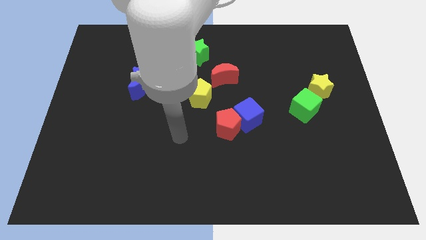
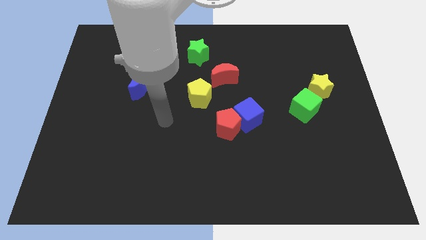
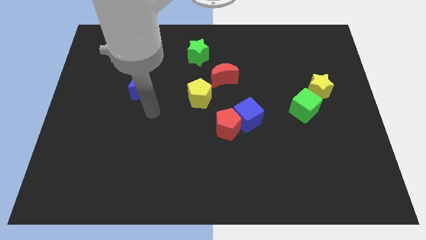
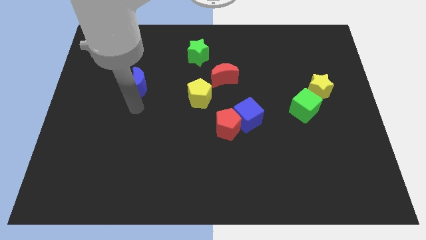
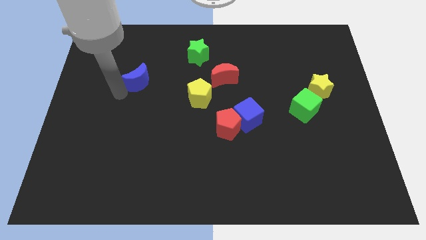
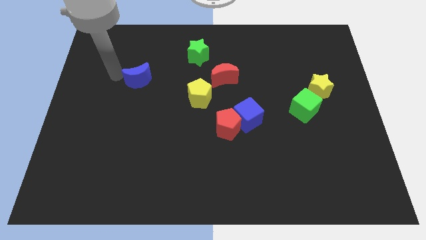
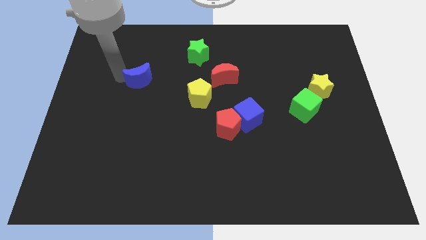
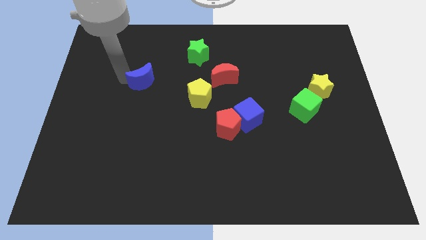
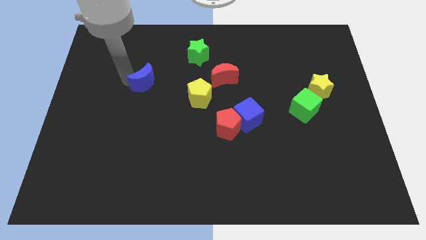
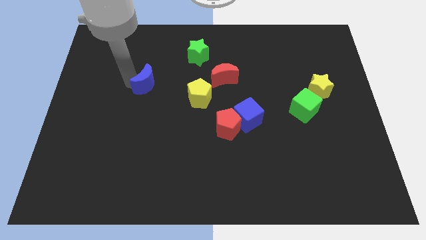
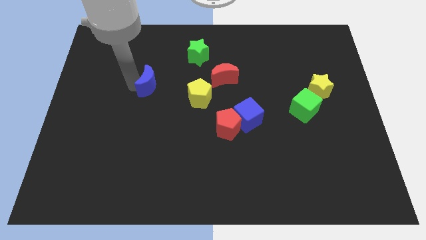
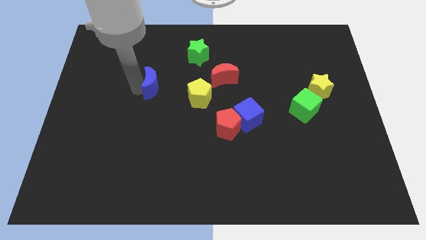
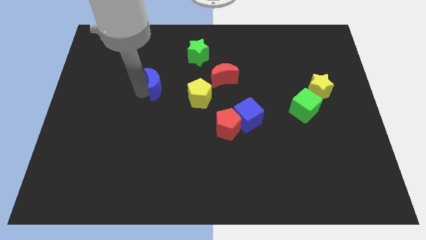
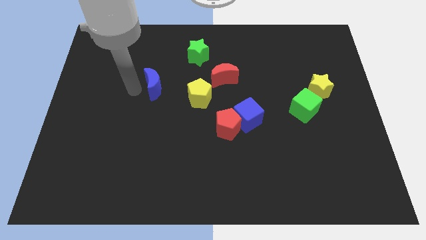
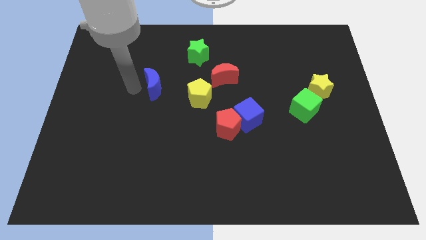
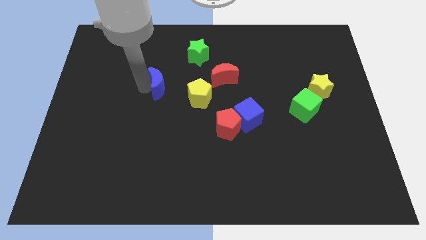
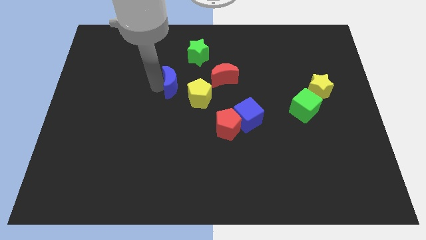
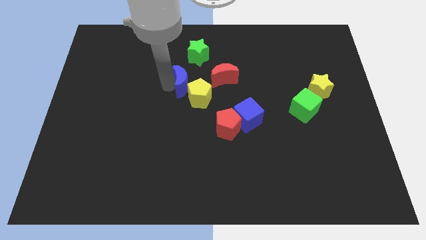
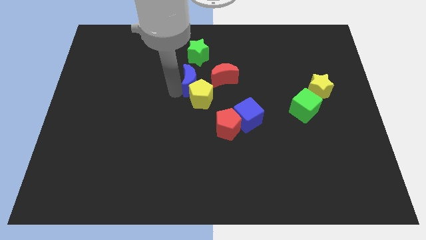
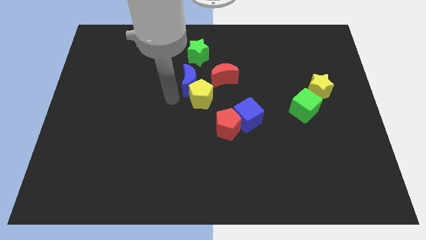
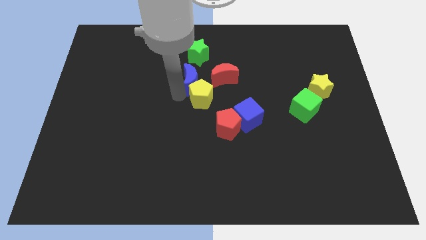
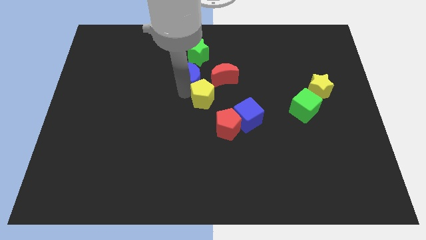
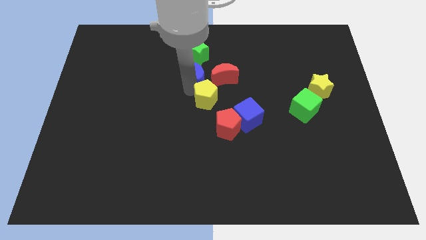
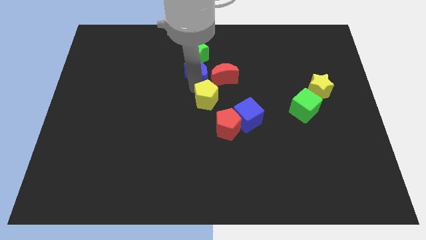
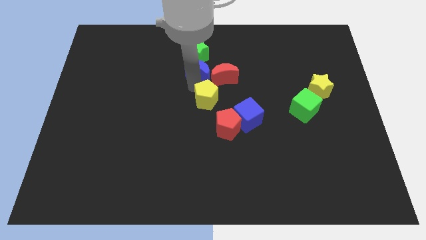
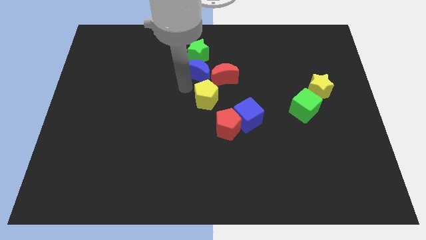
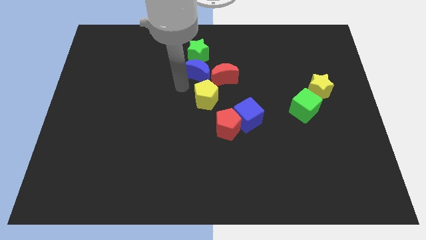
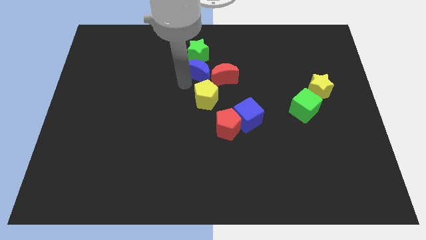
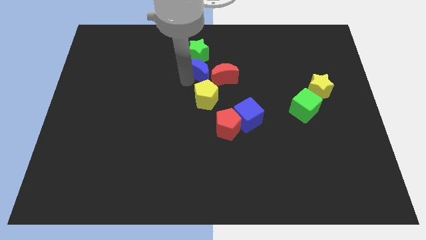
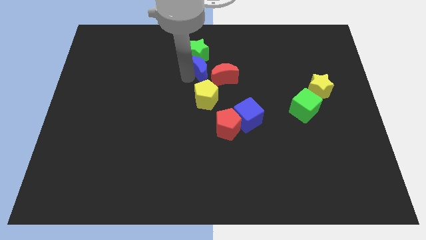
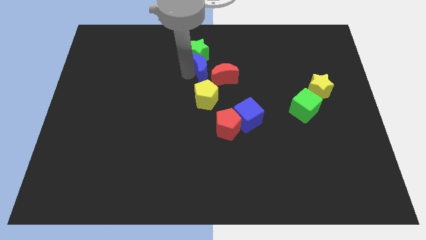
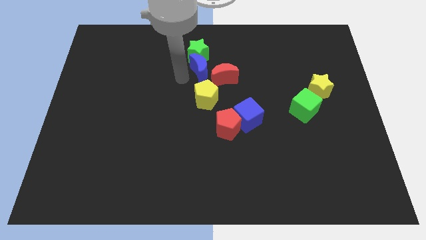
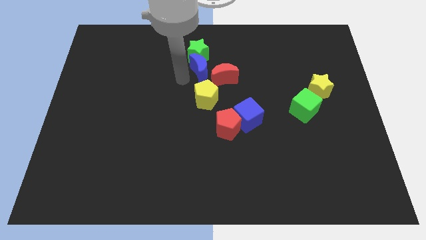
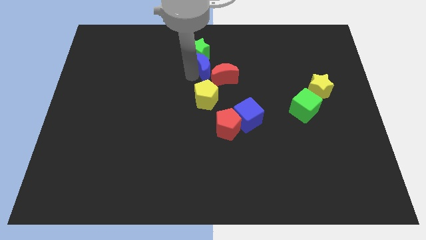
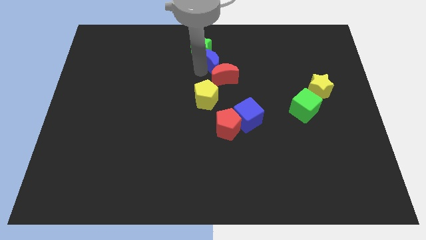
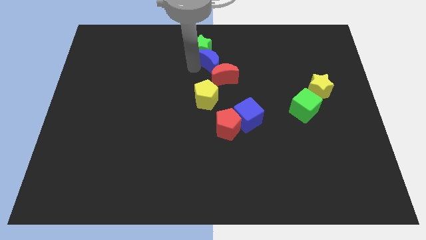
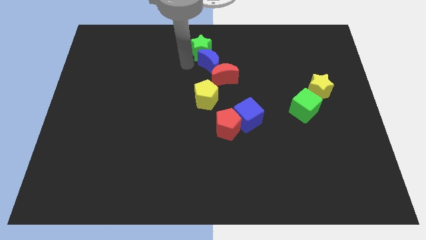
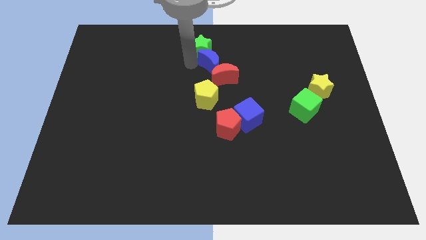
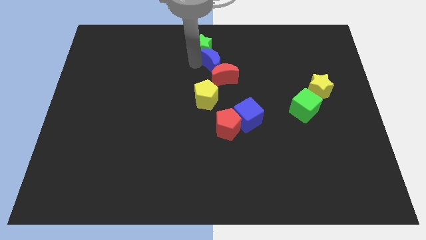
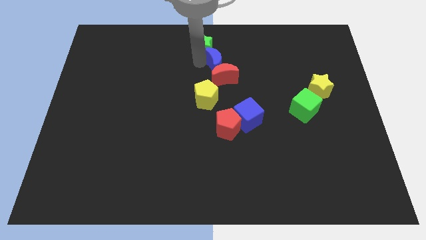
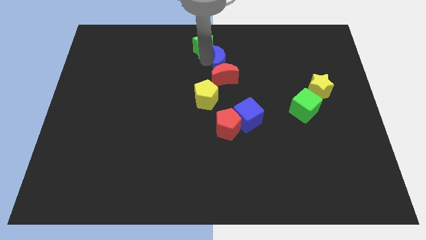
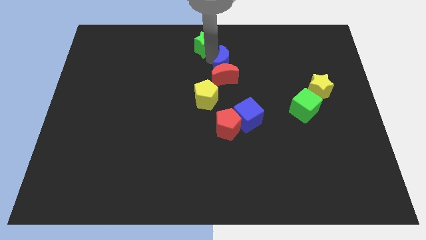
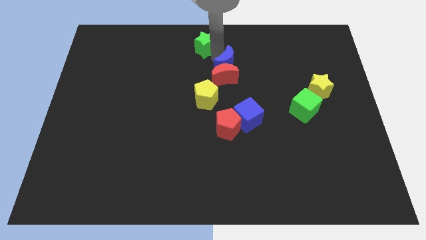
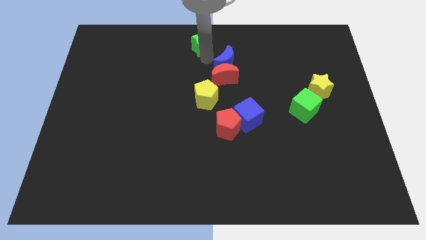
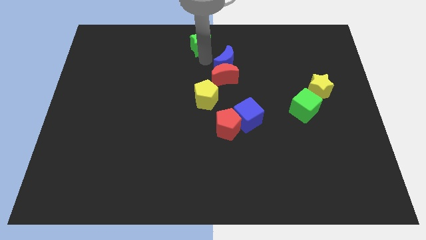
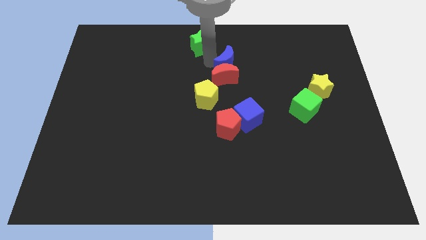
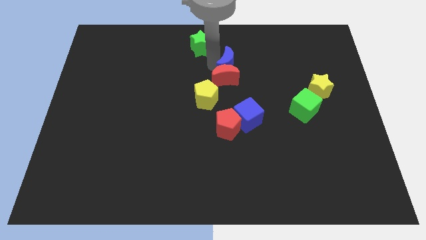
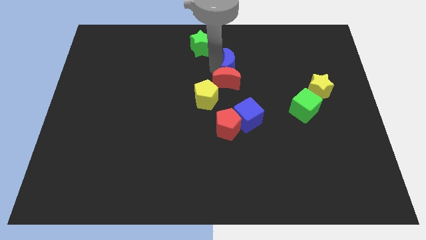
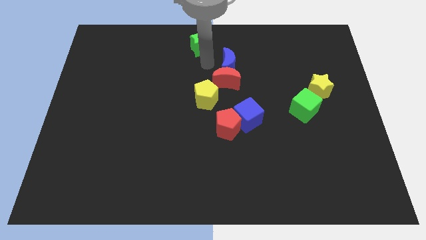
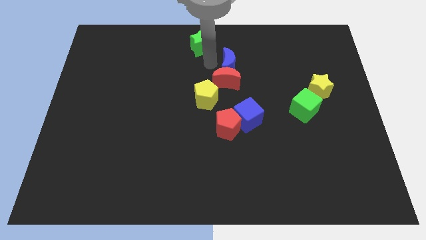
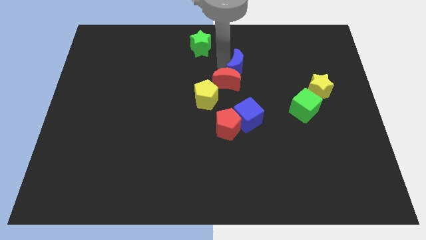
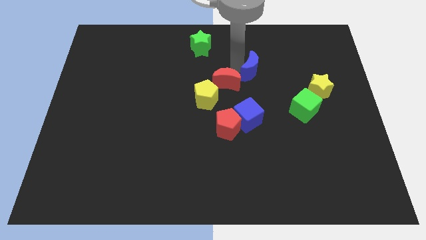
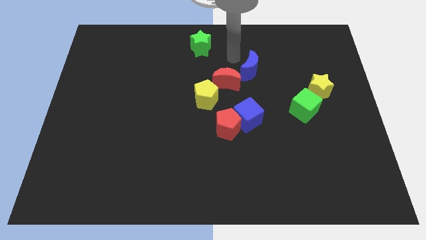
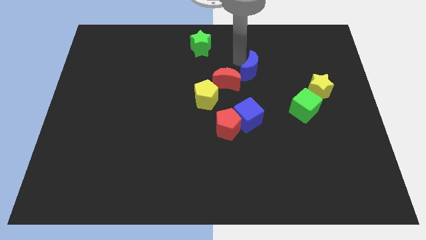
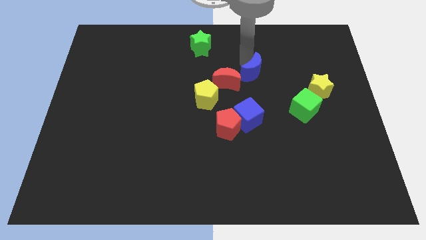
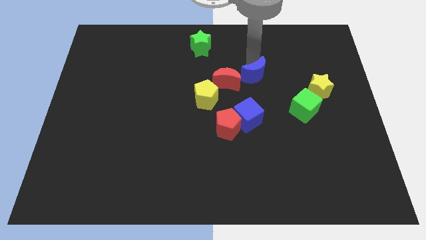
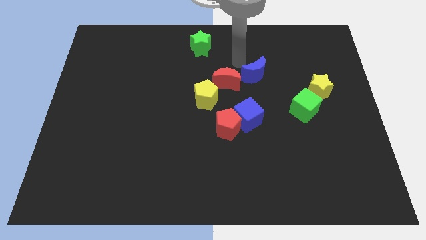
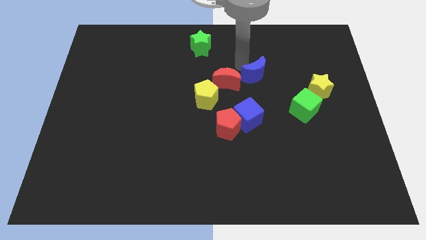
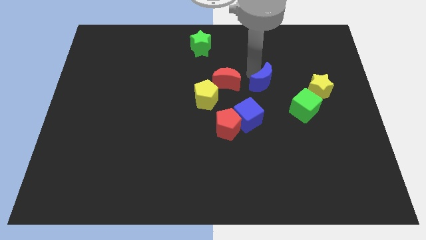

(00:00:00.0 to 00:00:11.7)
push the blue moon to the top left of the green cube

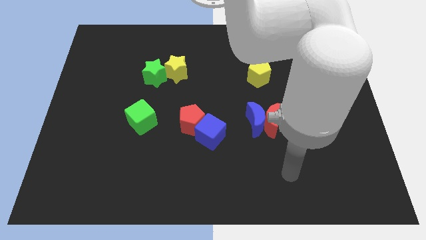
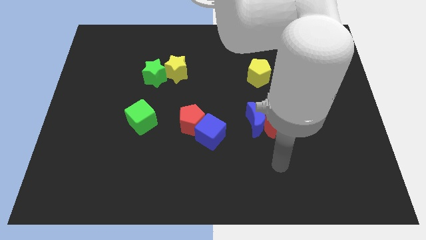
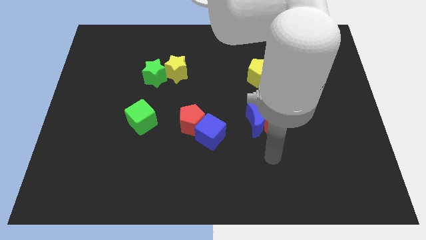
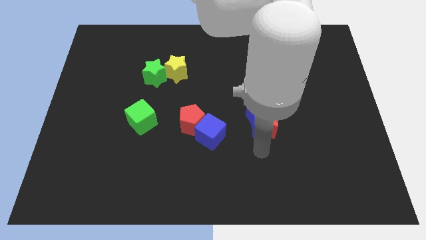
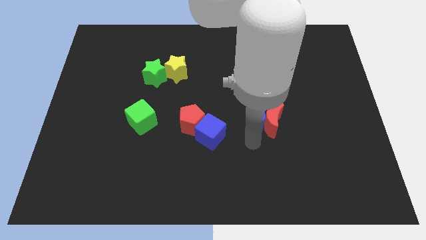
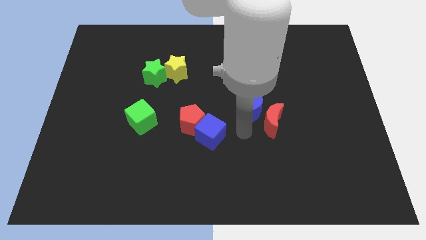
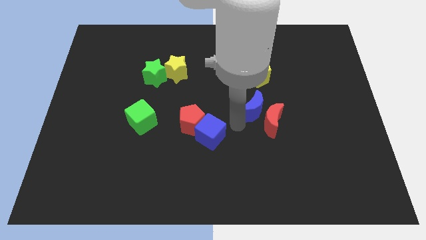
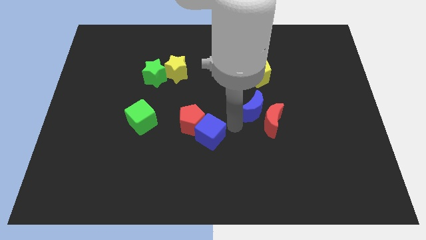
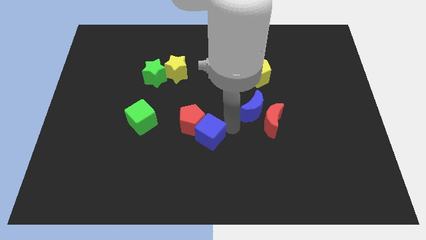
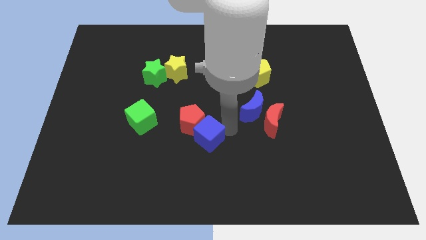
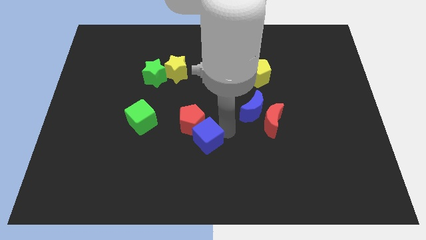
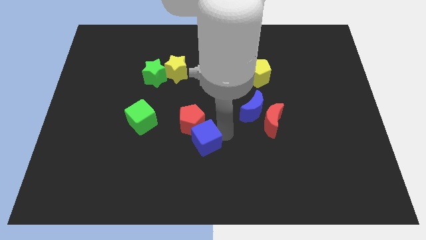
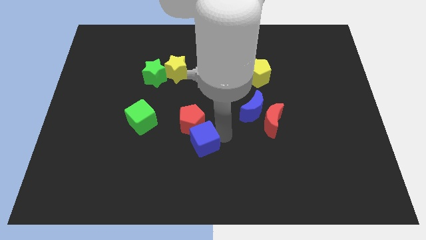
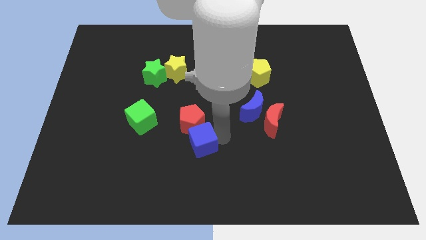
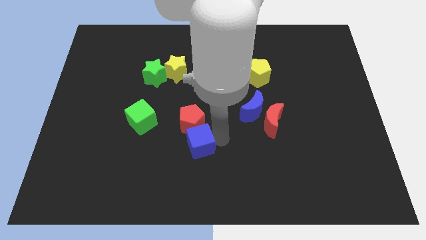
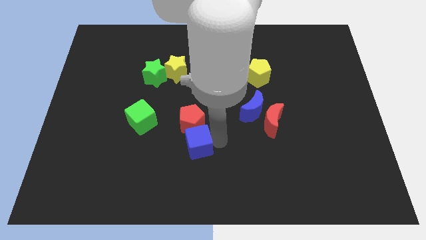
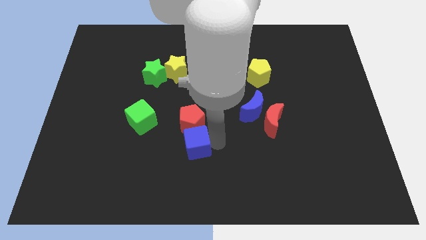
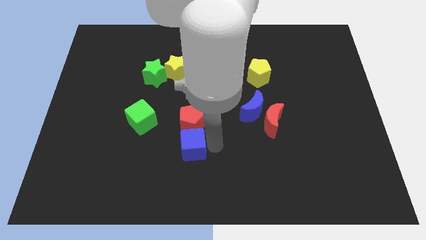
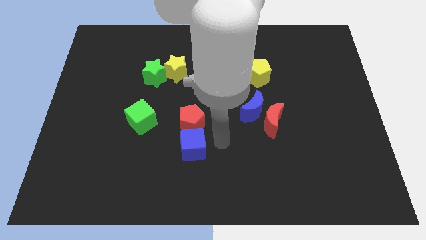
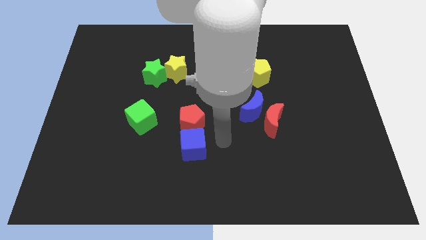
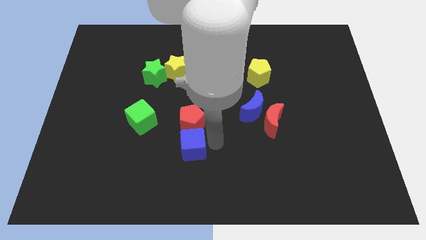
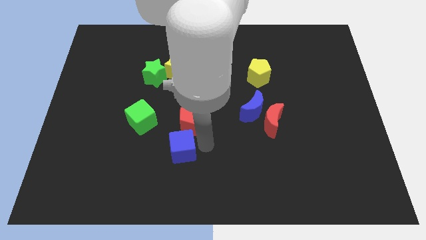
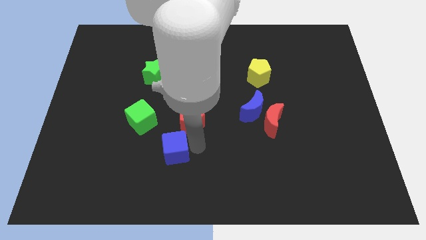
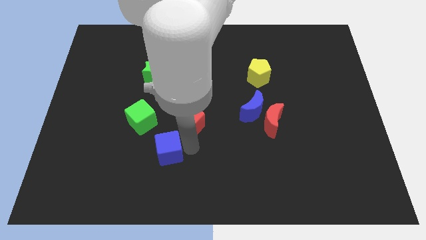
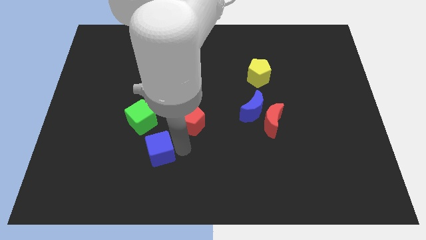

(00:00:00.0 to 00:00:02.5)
slide the blue cube to the bottom of the green cube
